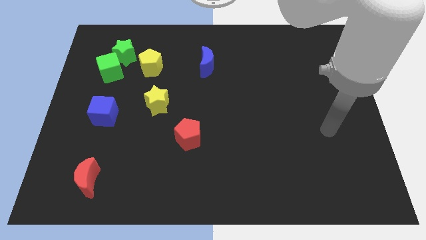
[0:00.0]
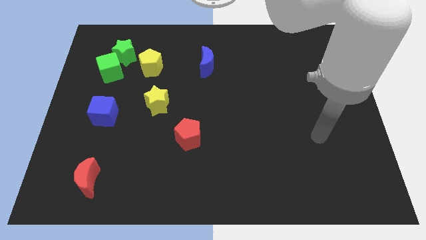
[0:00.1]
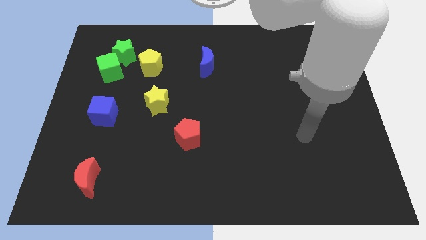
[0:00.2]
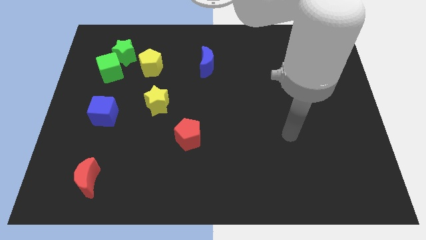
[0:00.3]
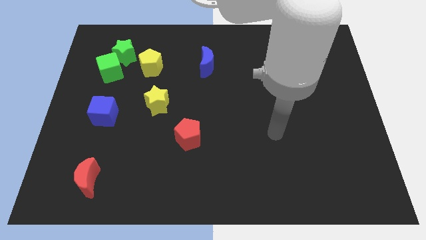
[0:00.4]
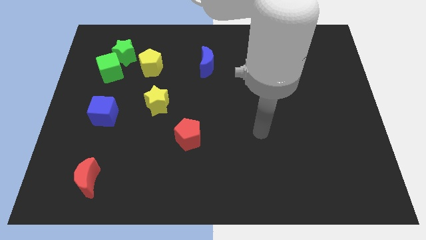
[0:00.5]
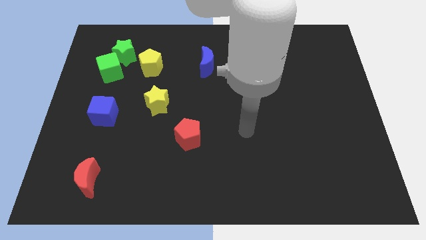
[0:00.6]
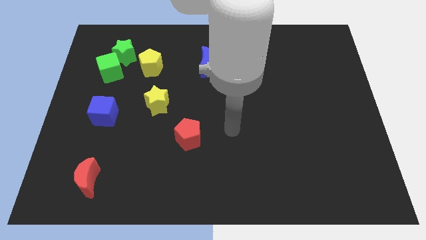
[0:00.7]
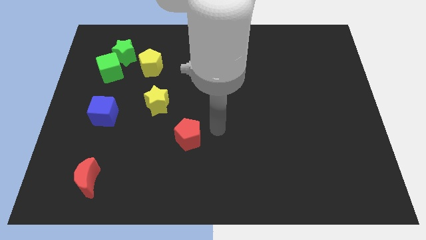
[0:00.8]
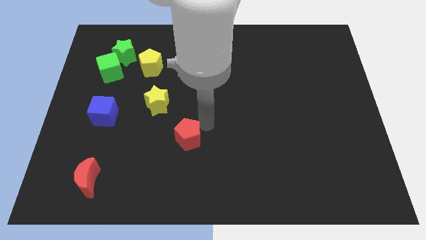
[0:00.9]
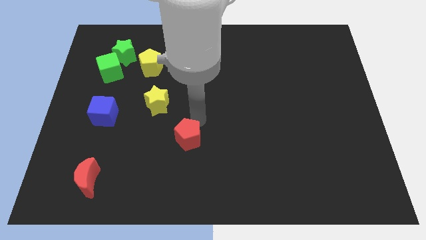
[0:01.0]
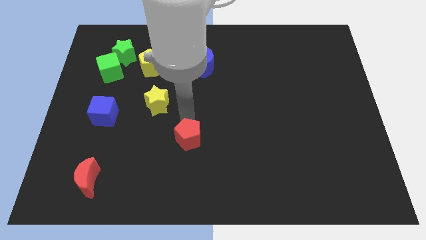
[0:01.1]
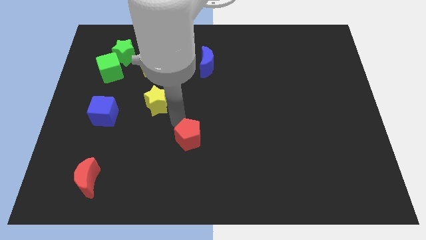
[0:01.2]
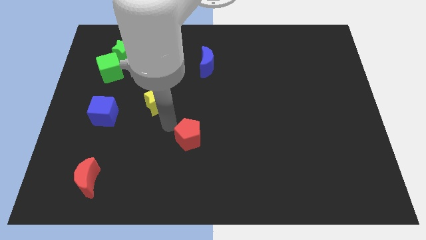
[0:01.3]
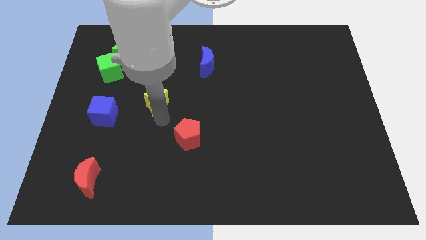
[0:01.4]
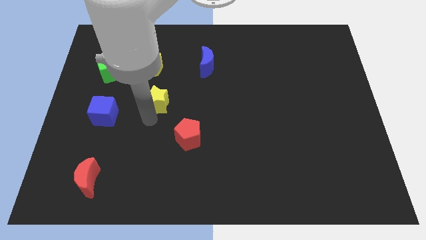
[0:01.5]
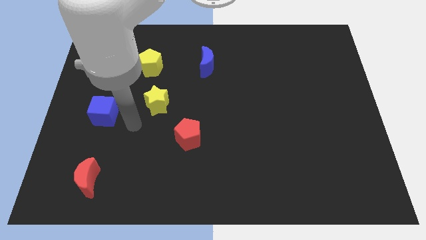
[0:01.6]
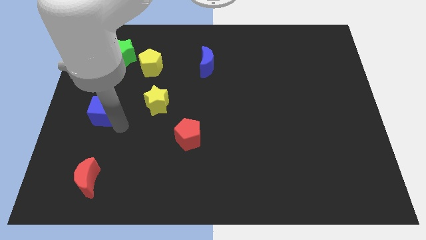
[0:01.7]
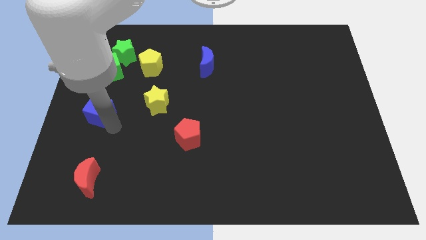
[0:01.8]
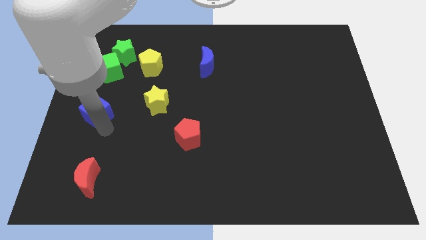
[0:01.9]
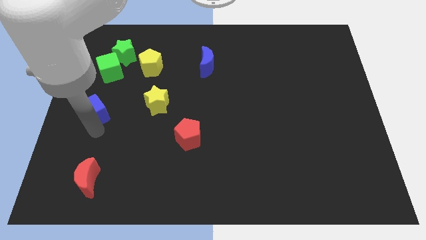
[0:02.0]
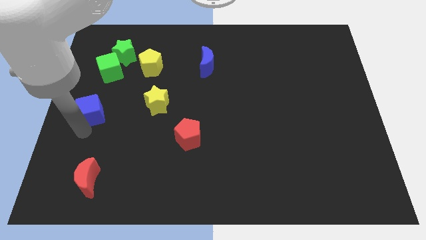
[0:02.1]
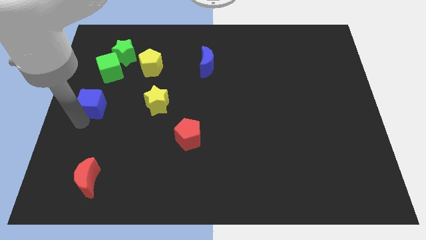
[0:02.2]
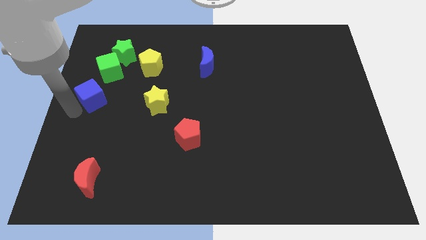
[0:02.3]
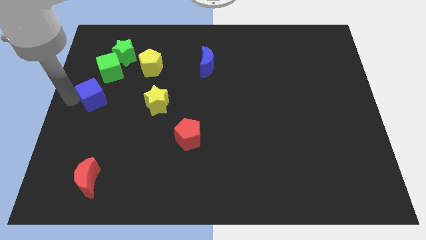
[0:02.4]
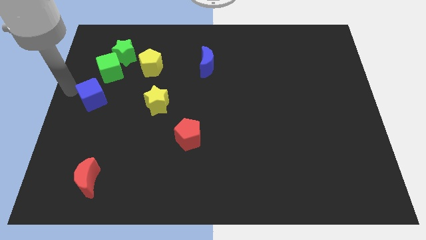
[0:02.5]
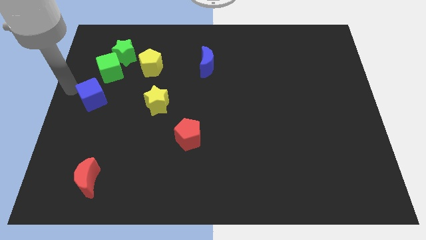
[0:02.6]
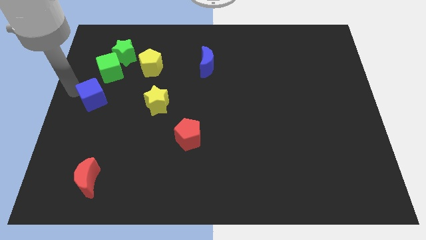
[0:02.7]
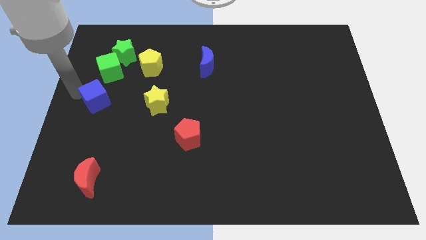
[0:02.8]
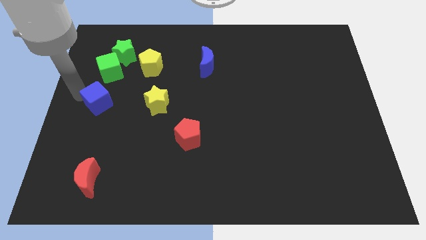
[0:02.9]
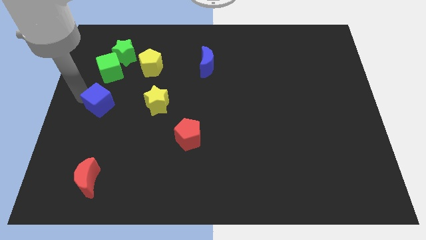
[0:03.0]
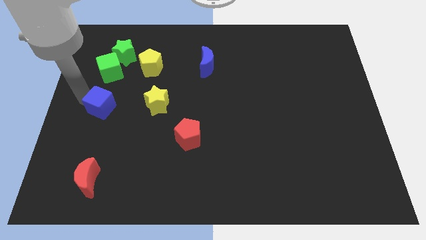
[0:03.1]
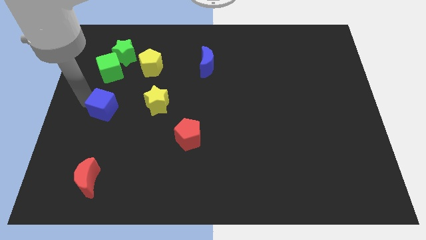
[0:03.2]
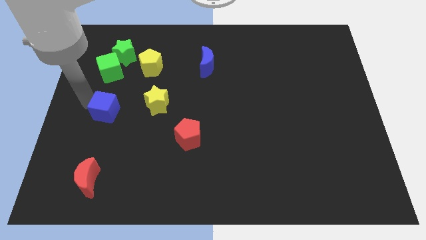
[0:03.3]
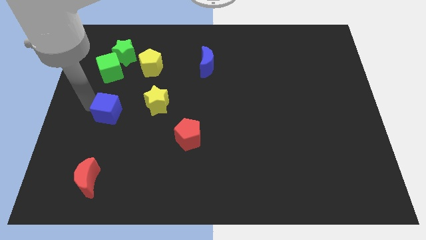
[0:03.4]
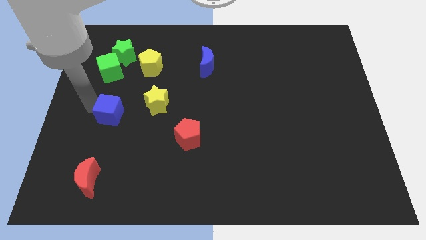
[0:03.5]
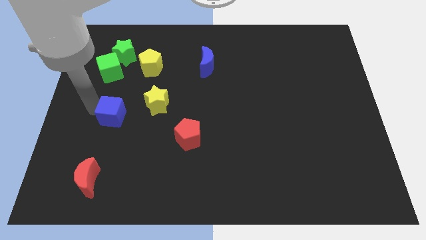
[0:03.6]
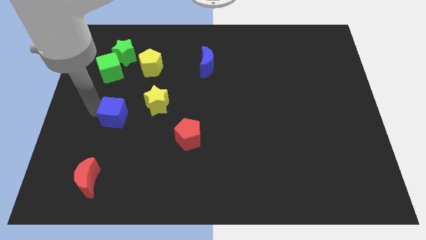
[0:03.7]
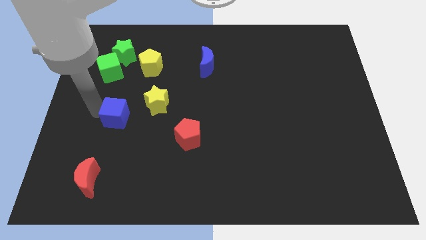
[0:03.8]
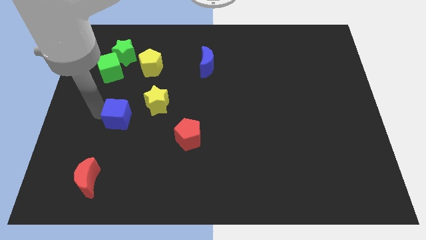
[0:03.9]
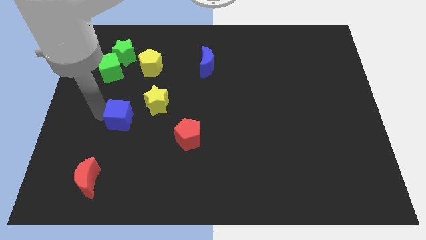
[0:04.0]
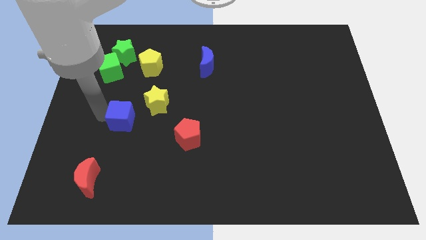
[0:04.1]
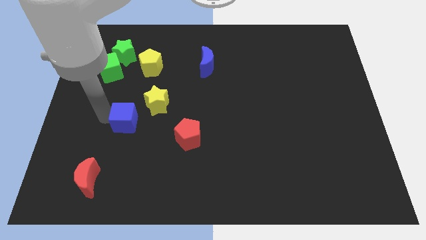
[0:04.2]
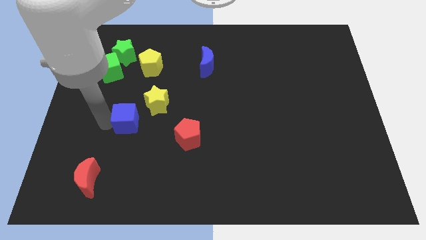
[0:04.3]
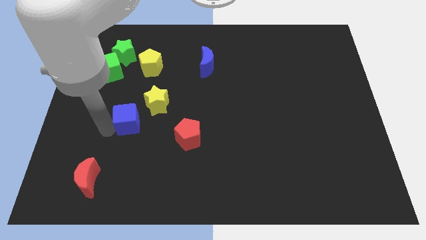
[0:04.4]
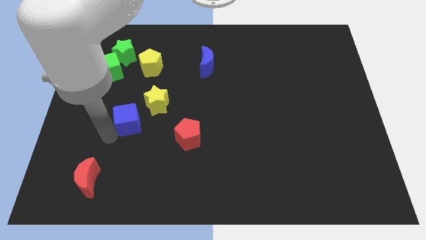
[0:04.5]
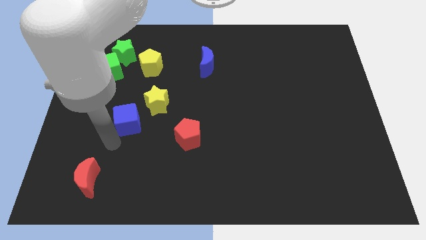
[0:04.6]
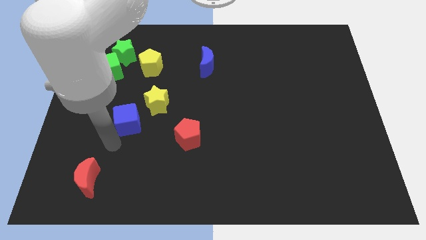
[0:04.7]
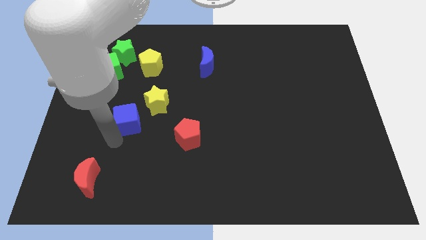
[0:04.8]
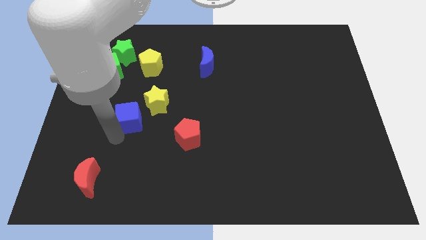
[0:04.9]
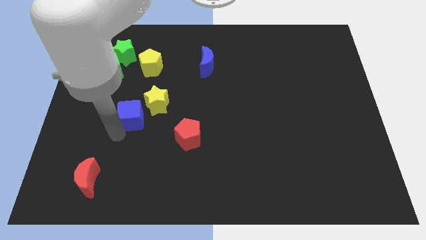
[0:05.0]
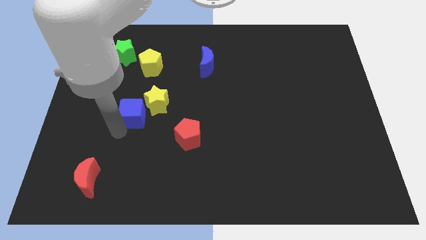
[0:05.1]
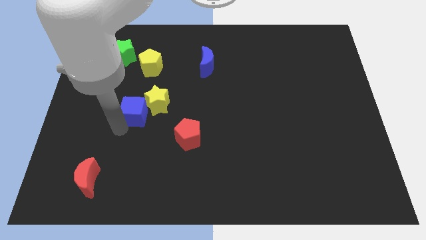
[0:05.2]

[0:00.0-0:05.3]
move the blue cube to the bottom of the yellow pentagon

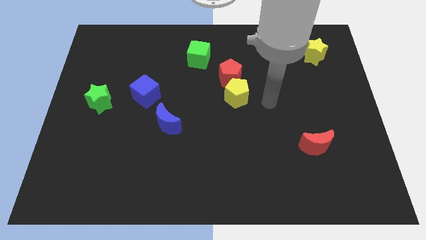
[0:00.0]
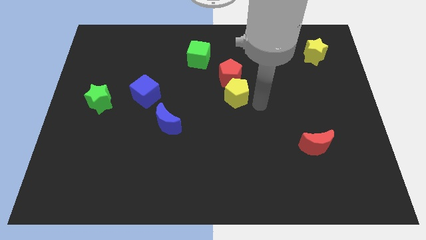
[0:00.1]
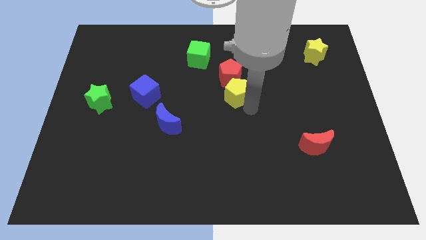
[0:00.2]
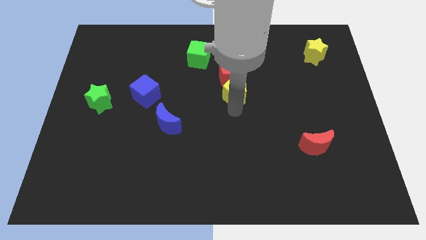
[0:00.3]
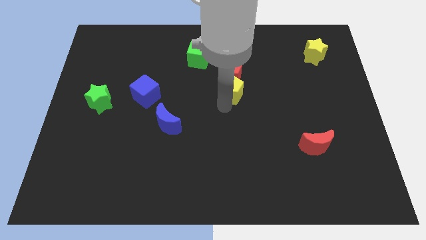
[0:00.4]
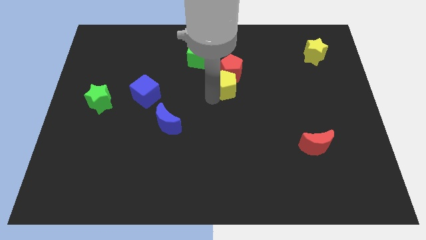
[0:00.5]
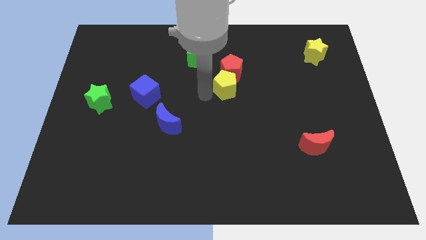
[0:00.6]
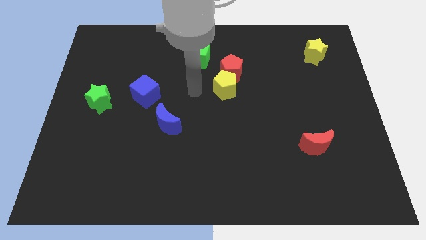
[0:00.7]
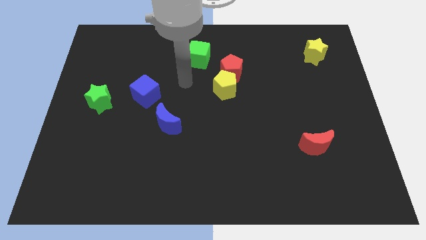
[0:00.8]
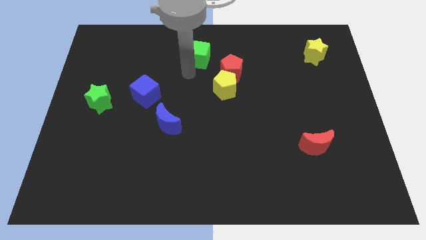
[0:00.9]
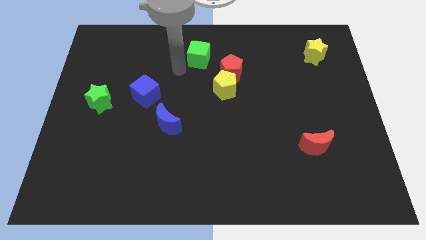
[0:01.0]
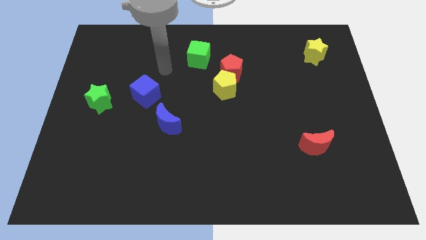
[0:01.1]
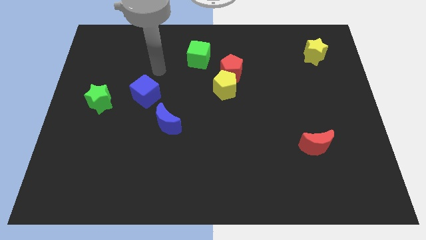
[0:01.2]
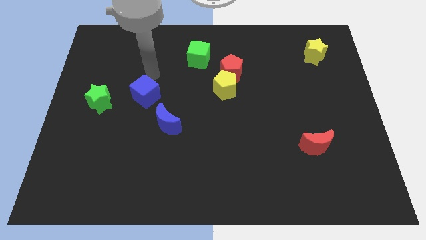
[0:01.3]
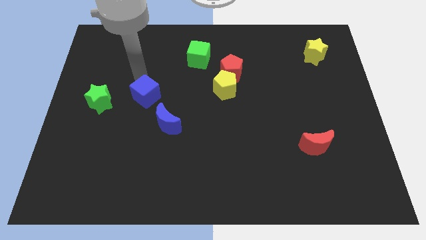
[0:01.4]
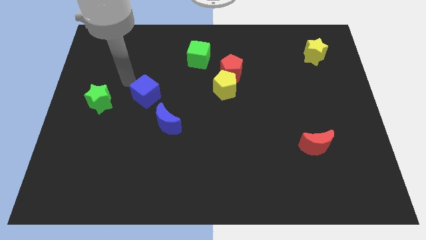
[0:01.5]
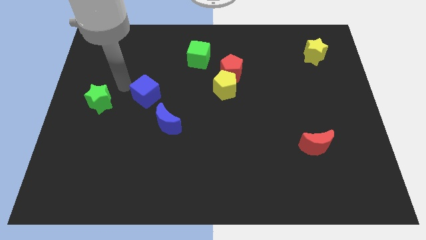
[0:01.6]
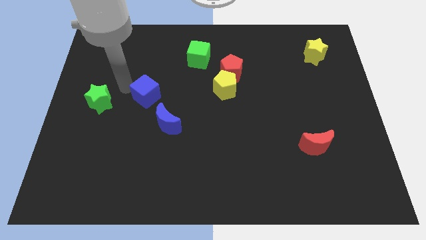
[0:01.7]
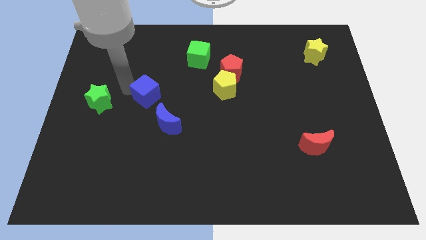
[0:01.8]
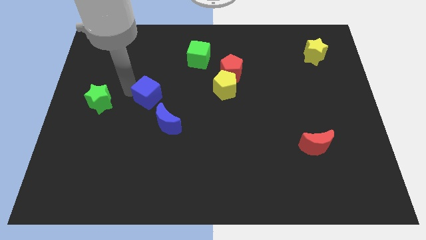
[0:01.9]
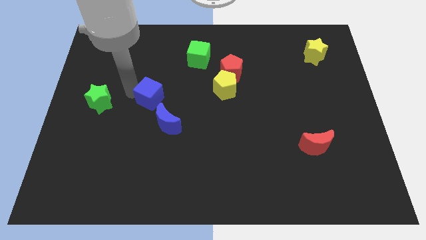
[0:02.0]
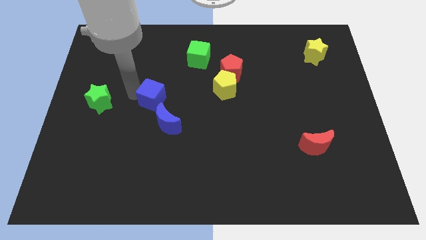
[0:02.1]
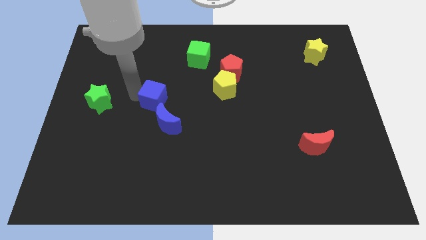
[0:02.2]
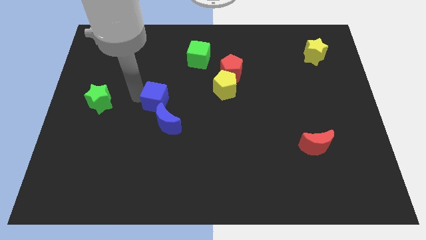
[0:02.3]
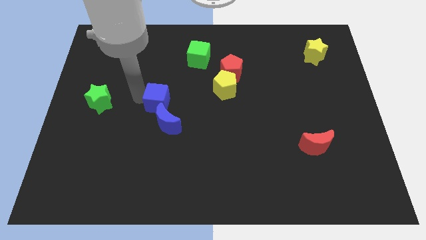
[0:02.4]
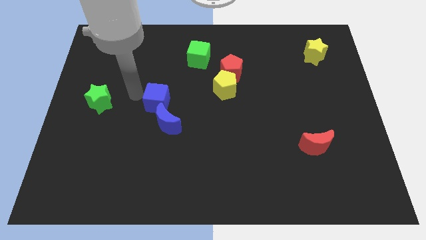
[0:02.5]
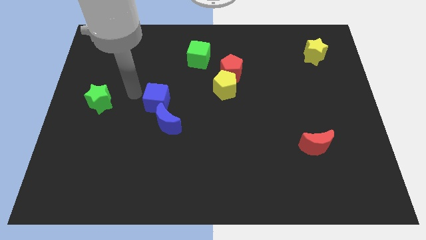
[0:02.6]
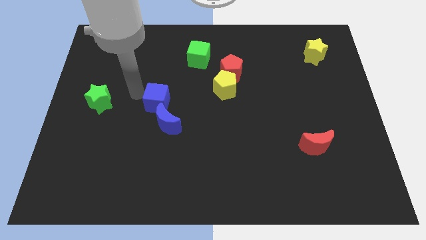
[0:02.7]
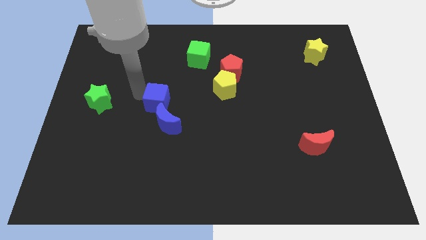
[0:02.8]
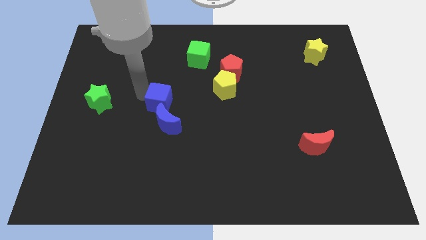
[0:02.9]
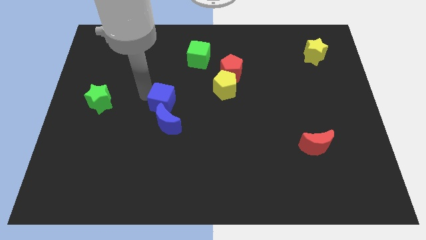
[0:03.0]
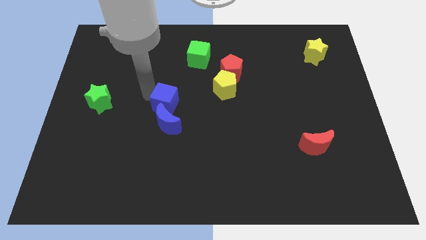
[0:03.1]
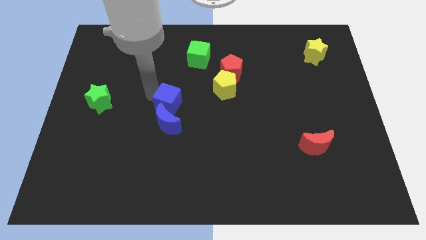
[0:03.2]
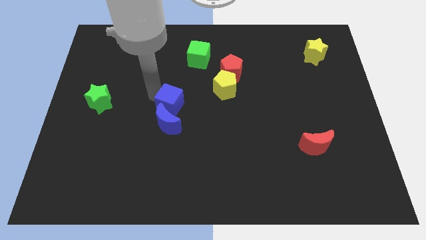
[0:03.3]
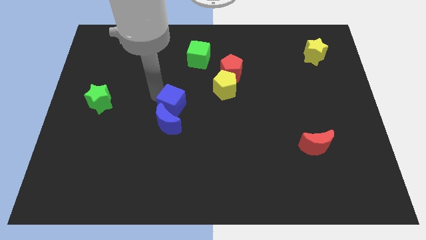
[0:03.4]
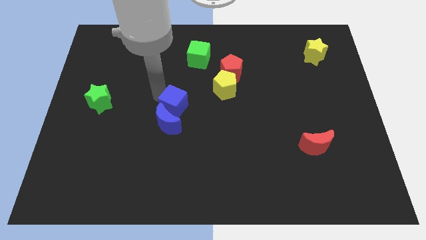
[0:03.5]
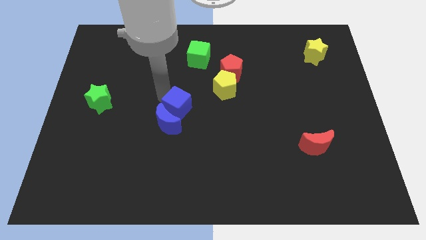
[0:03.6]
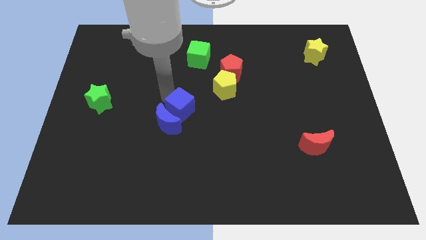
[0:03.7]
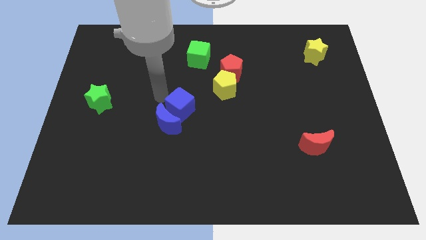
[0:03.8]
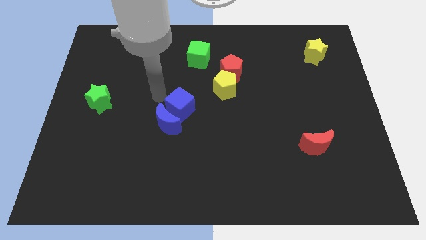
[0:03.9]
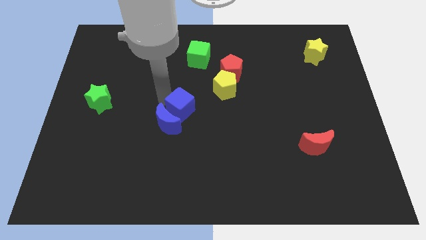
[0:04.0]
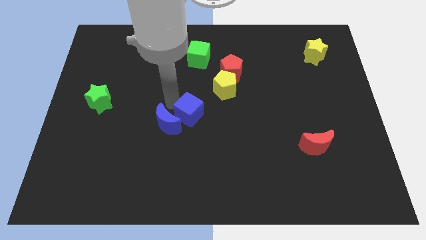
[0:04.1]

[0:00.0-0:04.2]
push the blue cube just right of the blue moon
